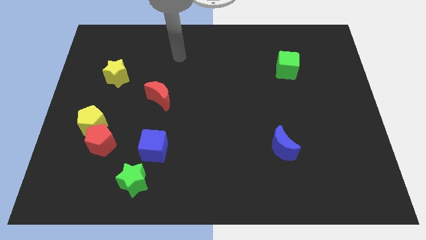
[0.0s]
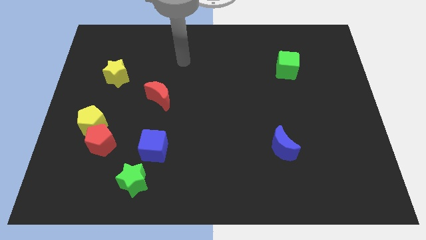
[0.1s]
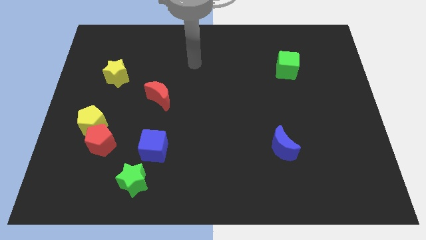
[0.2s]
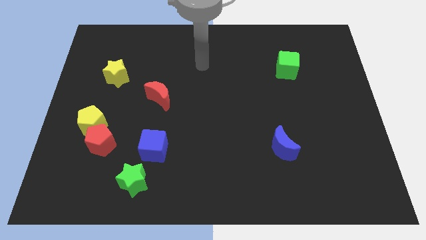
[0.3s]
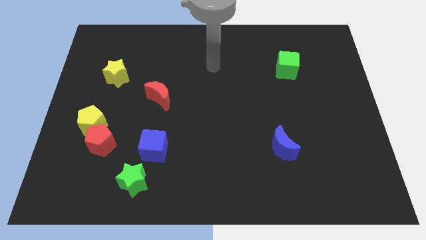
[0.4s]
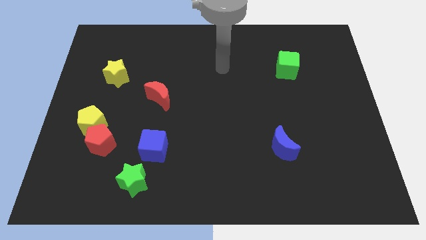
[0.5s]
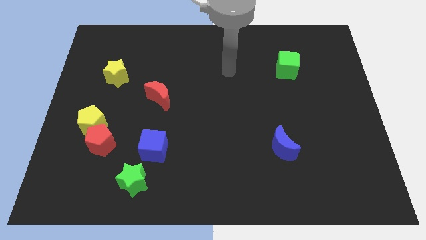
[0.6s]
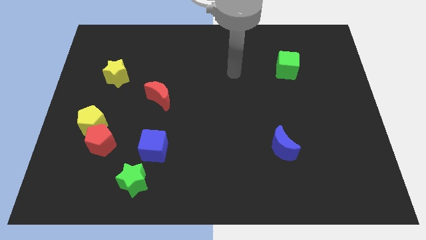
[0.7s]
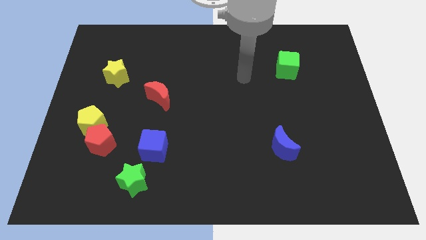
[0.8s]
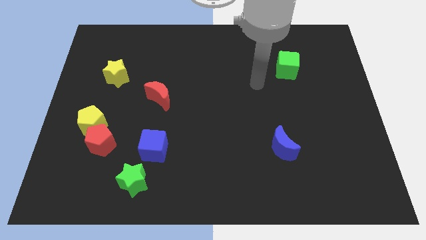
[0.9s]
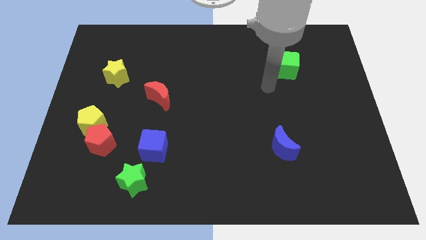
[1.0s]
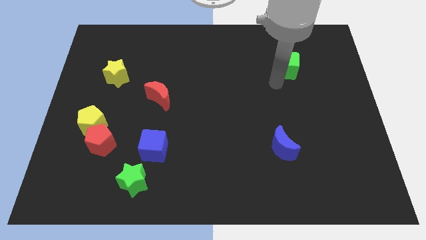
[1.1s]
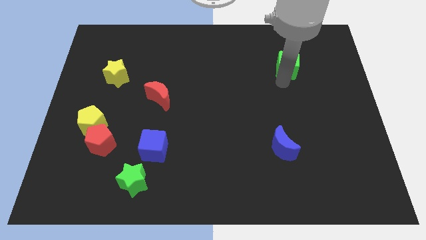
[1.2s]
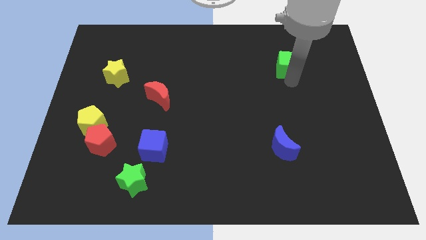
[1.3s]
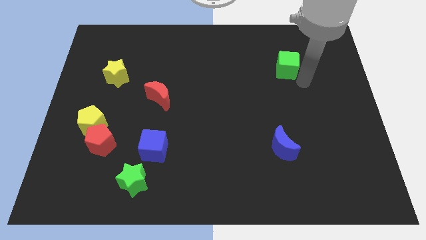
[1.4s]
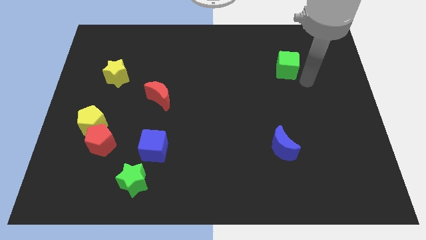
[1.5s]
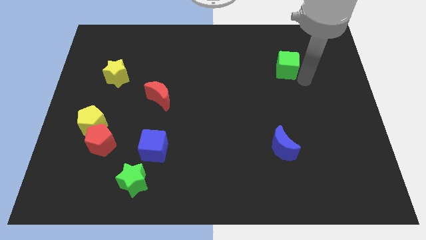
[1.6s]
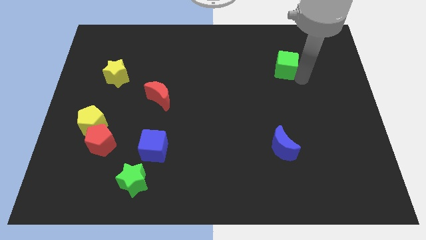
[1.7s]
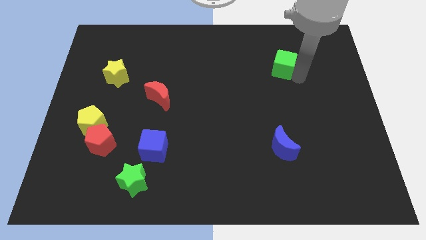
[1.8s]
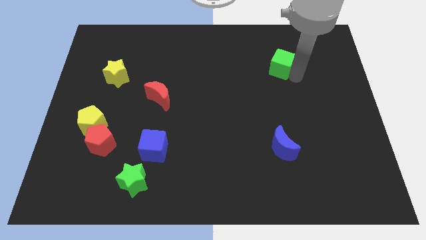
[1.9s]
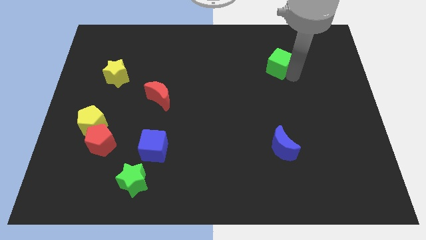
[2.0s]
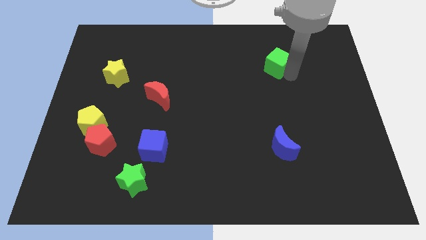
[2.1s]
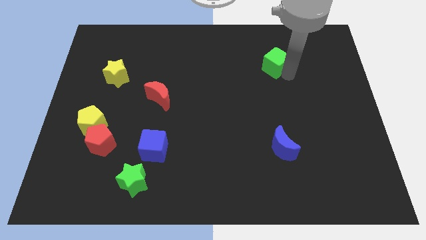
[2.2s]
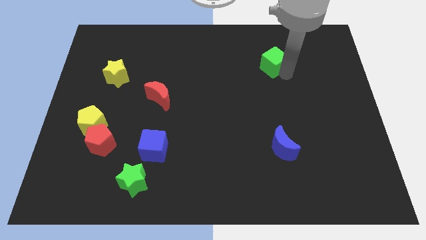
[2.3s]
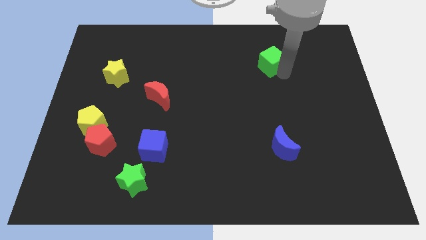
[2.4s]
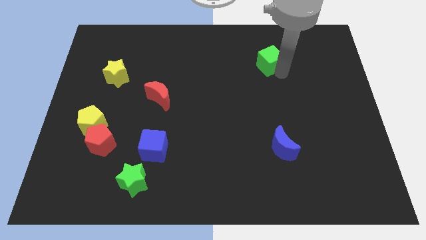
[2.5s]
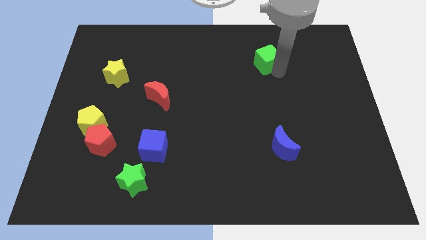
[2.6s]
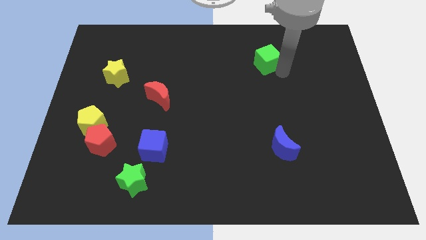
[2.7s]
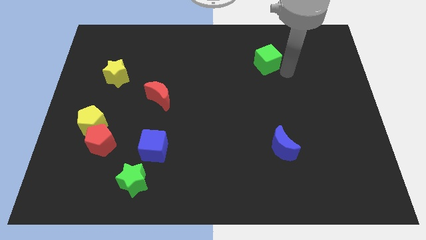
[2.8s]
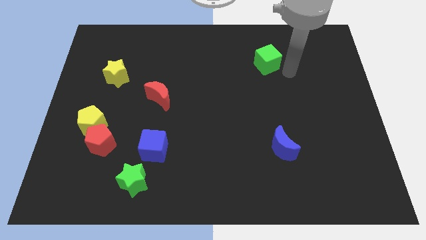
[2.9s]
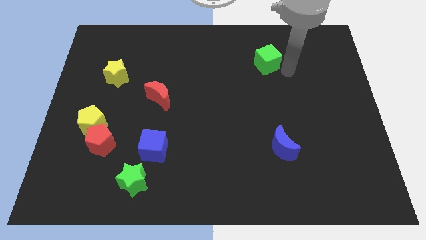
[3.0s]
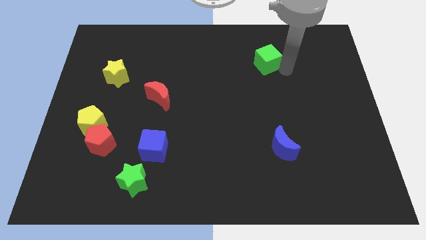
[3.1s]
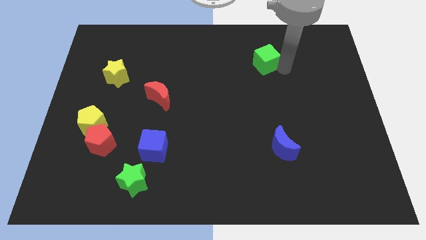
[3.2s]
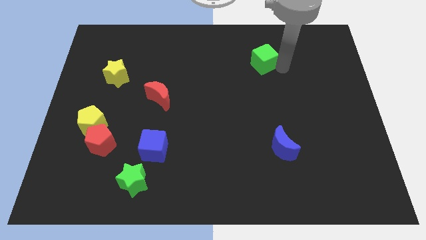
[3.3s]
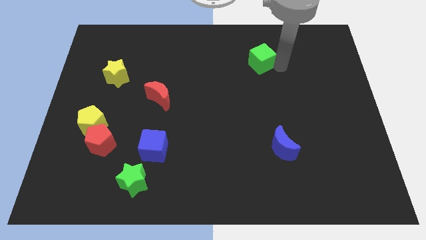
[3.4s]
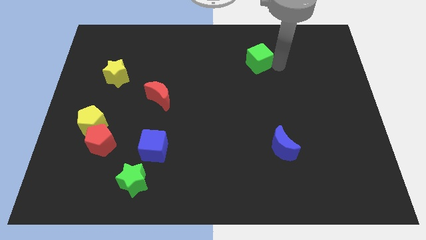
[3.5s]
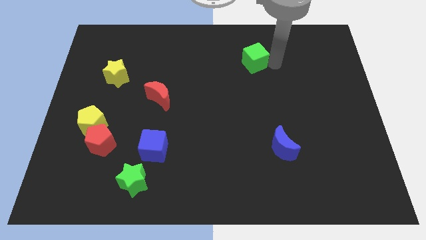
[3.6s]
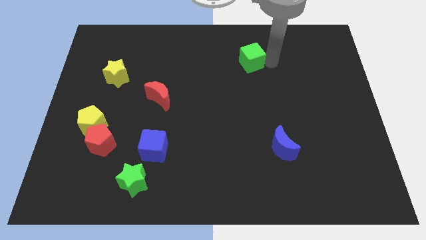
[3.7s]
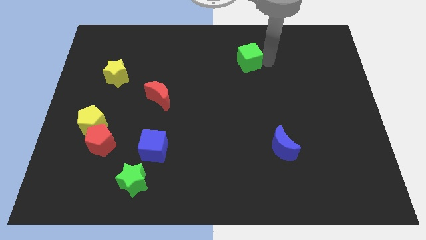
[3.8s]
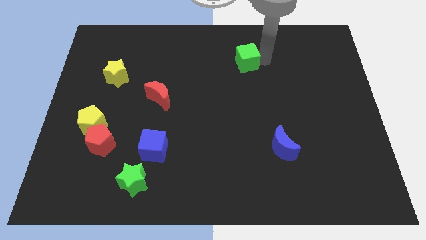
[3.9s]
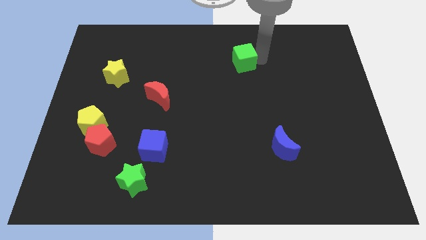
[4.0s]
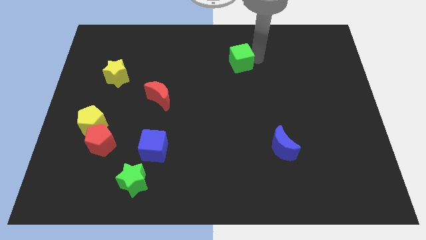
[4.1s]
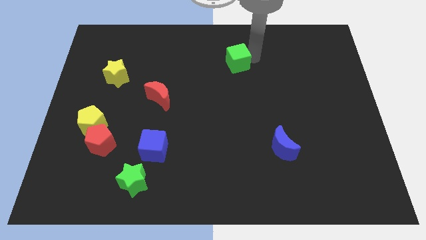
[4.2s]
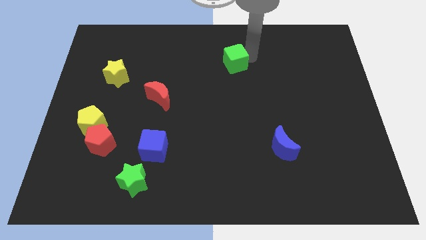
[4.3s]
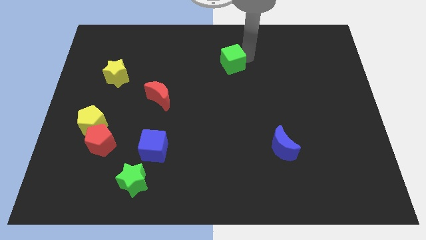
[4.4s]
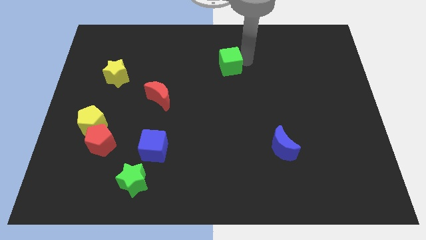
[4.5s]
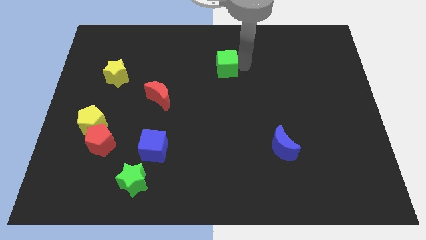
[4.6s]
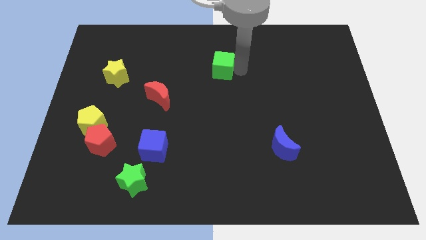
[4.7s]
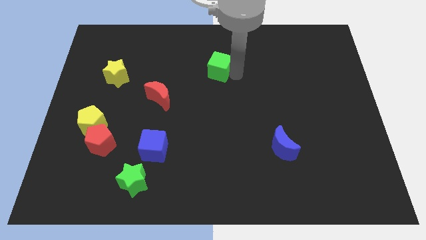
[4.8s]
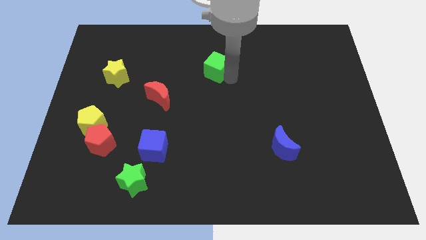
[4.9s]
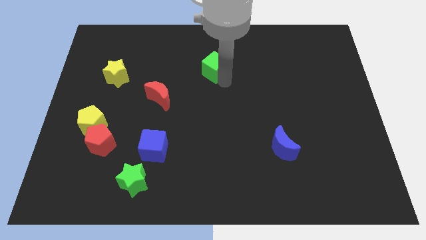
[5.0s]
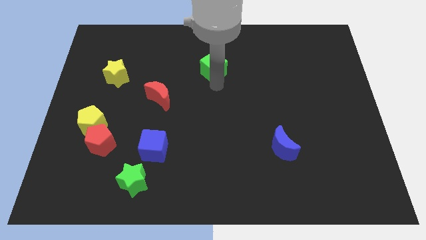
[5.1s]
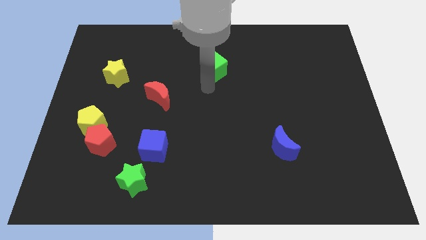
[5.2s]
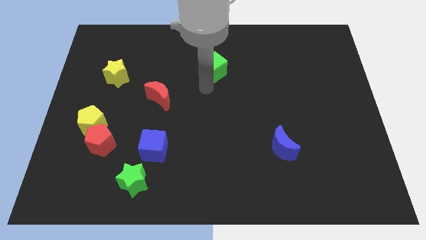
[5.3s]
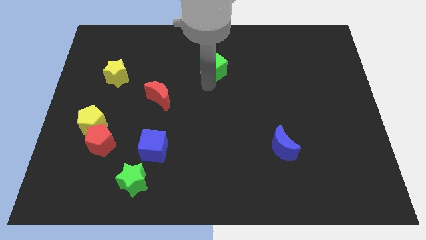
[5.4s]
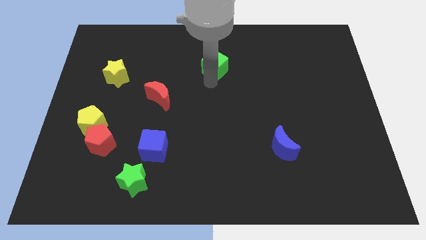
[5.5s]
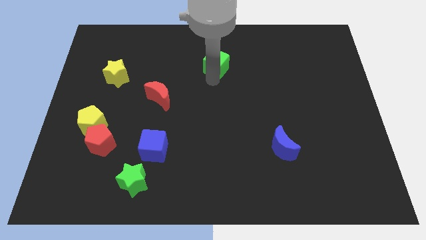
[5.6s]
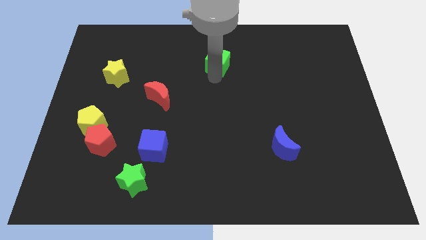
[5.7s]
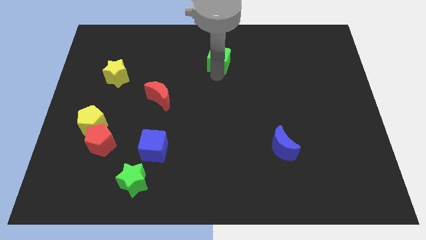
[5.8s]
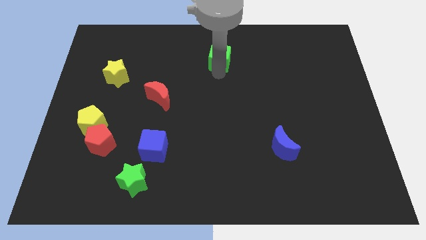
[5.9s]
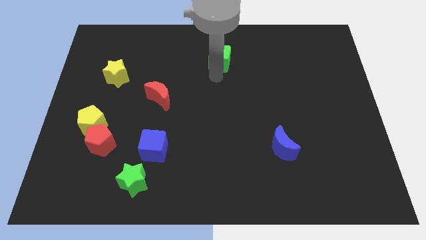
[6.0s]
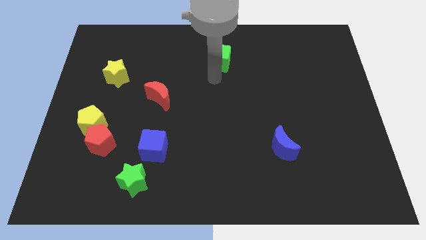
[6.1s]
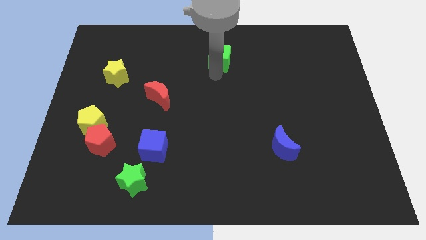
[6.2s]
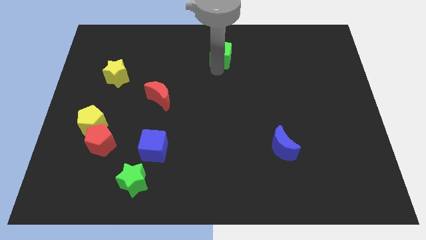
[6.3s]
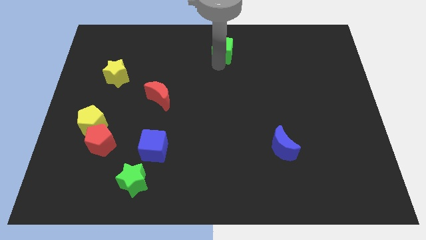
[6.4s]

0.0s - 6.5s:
move the green cube to the top

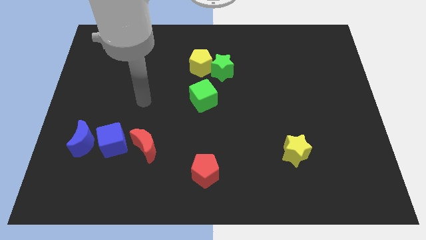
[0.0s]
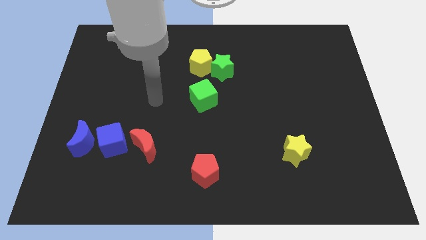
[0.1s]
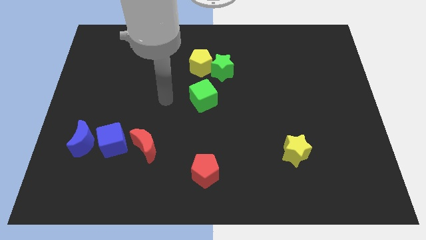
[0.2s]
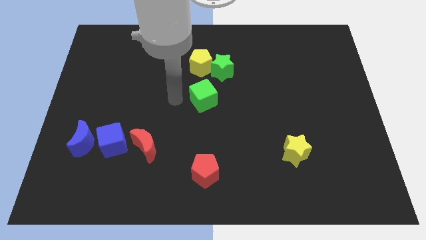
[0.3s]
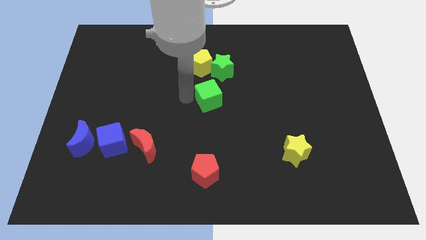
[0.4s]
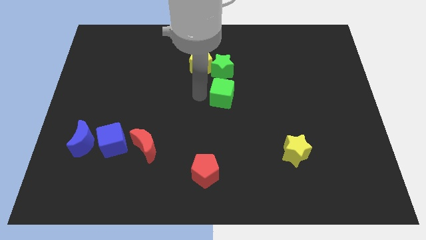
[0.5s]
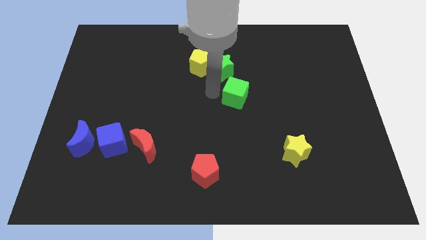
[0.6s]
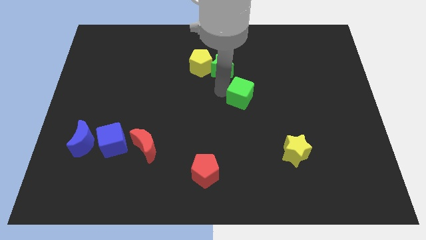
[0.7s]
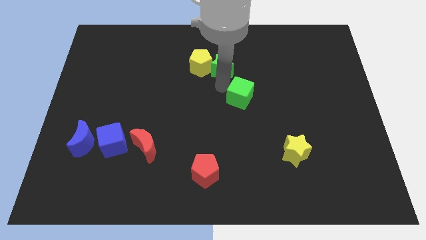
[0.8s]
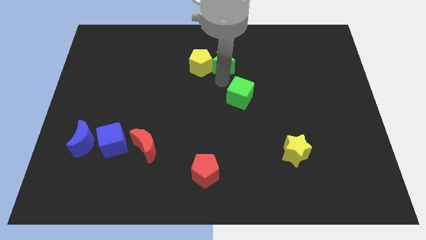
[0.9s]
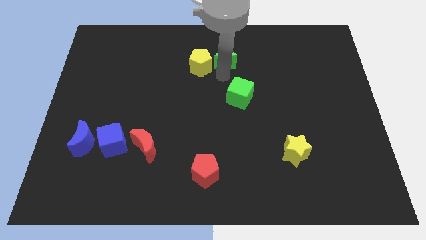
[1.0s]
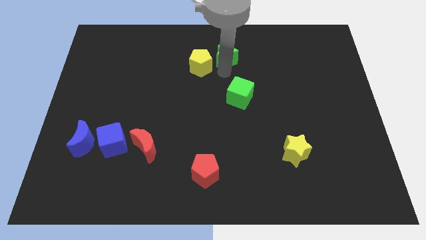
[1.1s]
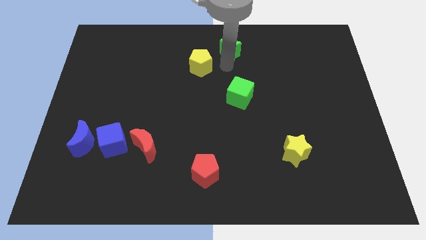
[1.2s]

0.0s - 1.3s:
move the green star to the top
